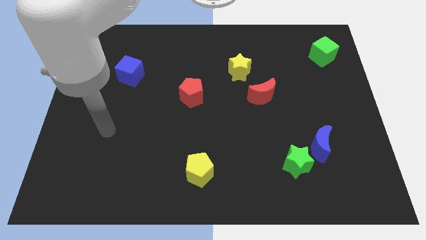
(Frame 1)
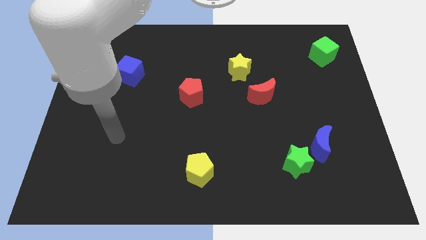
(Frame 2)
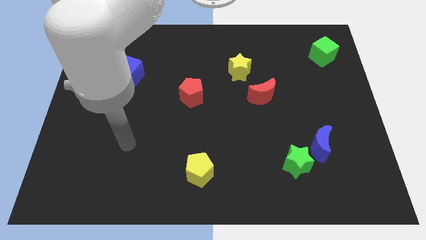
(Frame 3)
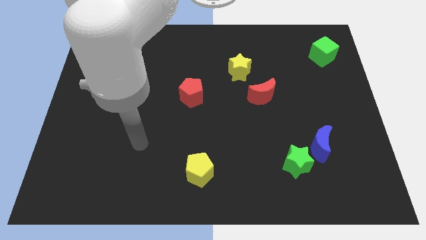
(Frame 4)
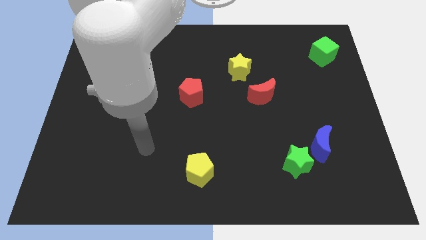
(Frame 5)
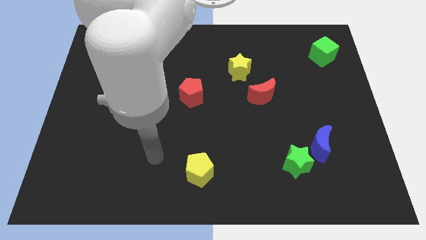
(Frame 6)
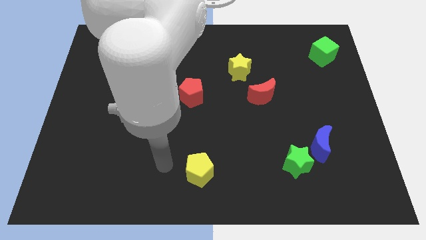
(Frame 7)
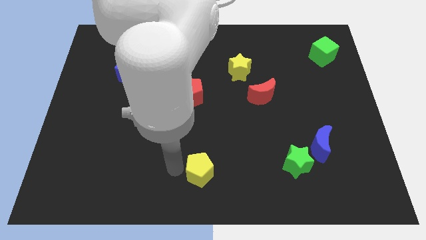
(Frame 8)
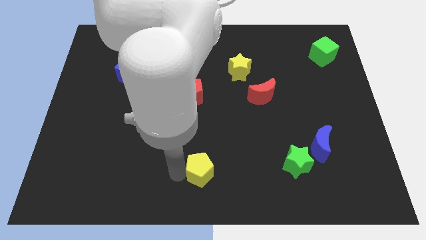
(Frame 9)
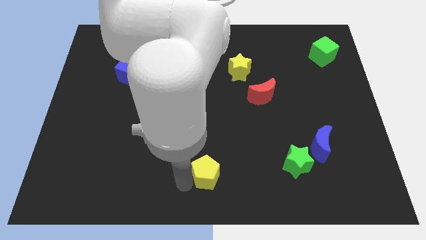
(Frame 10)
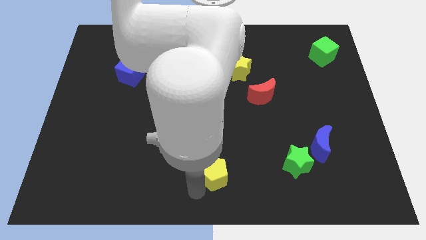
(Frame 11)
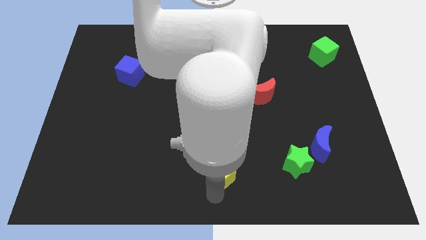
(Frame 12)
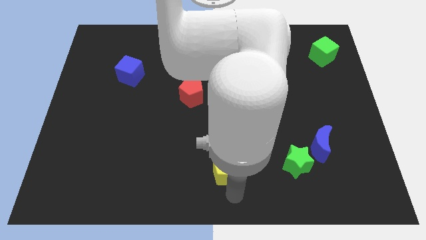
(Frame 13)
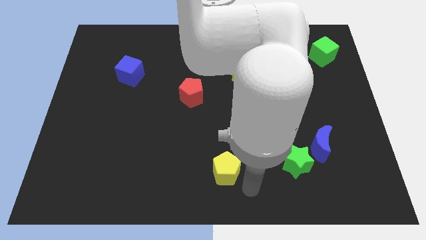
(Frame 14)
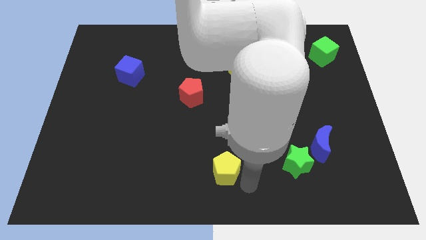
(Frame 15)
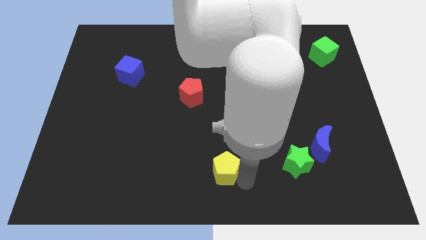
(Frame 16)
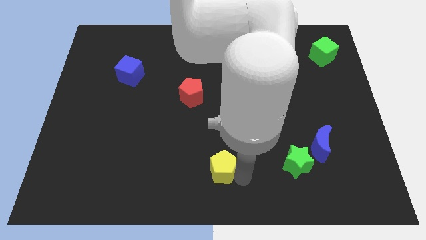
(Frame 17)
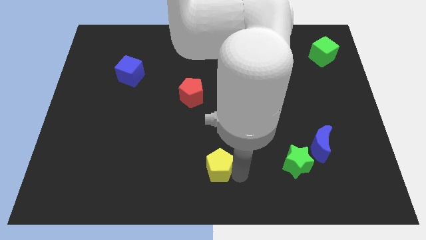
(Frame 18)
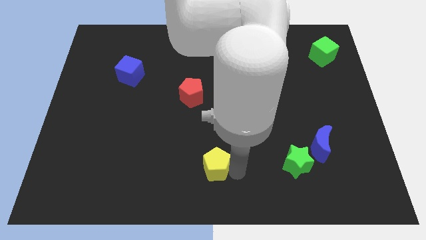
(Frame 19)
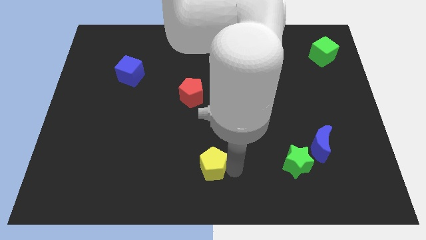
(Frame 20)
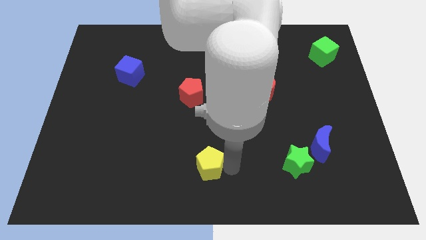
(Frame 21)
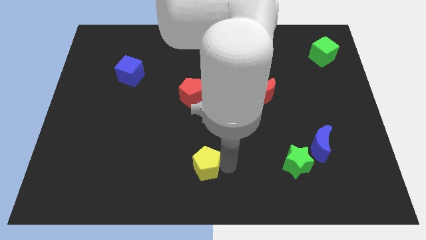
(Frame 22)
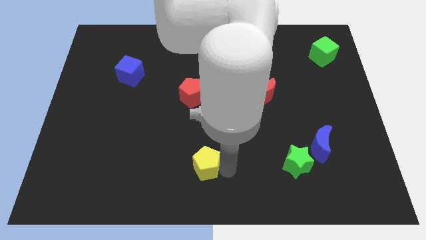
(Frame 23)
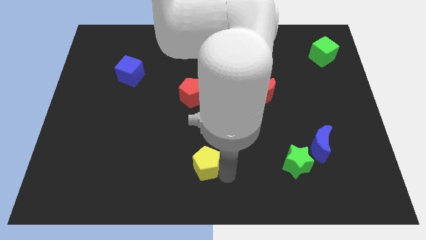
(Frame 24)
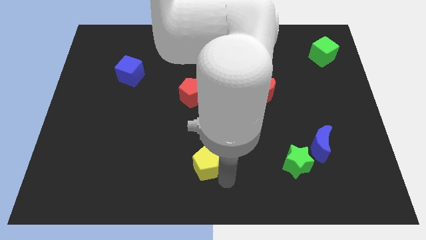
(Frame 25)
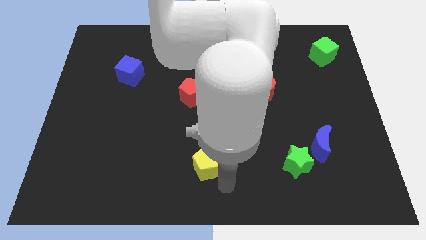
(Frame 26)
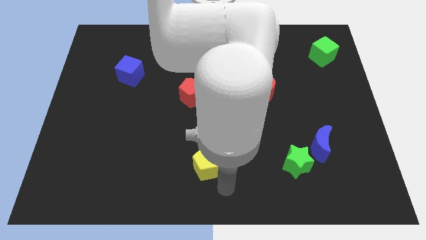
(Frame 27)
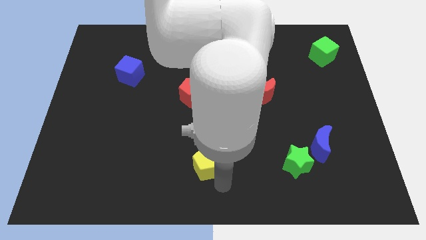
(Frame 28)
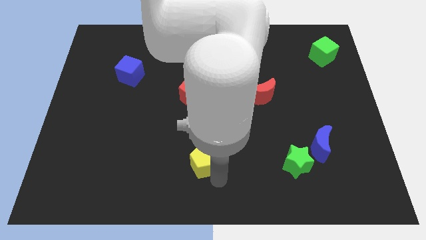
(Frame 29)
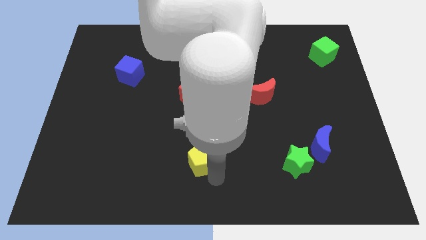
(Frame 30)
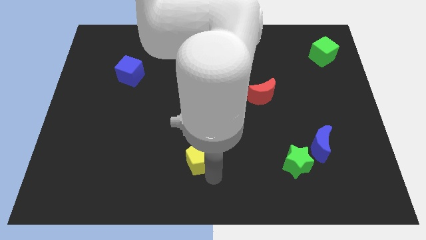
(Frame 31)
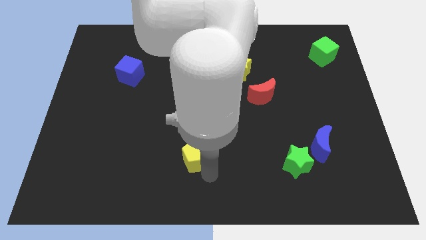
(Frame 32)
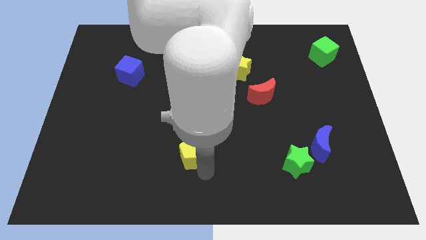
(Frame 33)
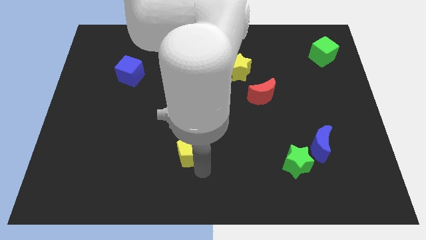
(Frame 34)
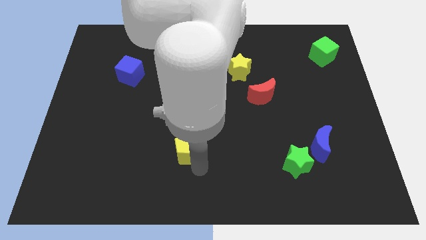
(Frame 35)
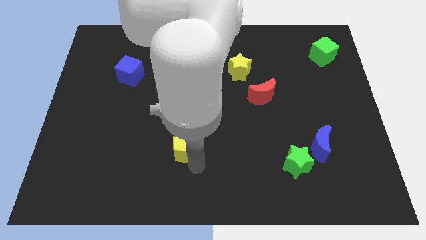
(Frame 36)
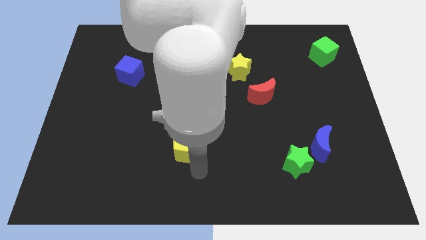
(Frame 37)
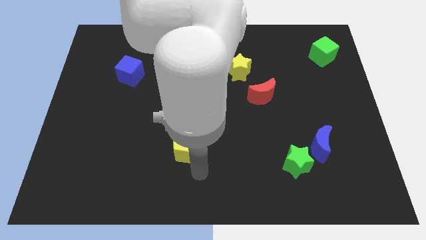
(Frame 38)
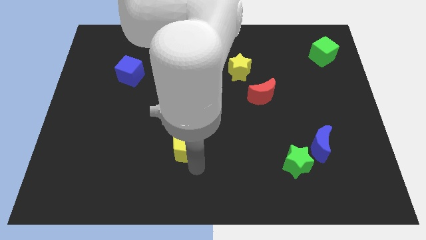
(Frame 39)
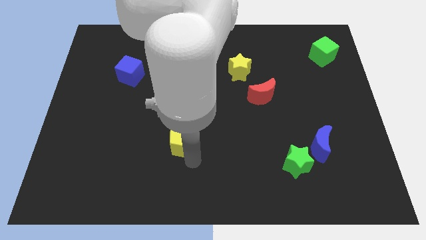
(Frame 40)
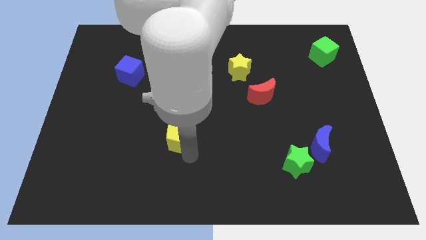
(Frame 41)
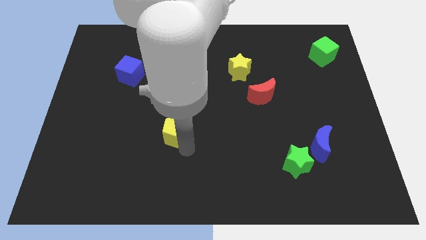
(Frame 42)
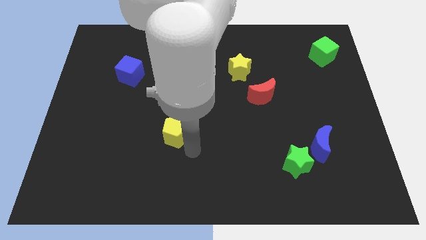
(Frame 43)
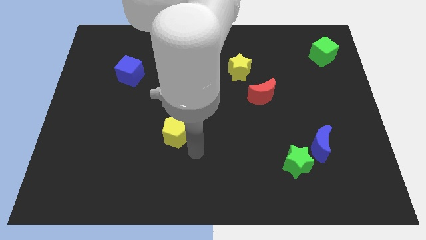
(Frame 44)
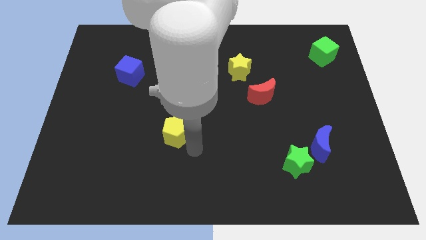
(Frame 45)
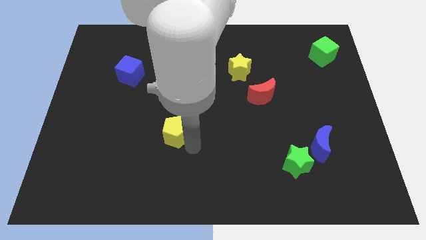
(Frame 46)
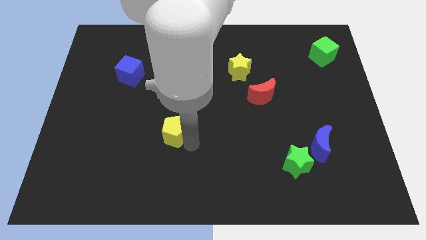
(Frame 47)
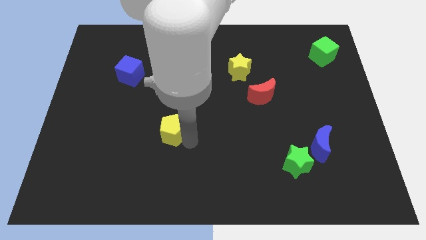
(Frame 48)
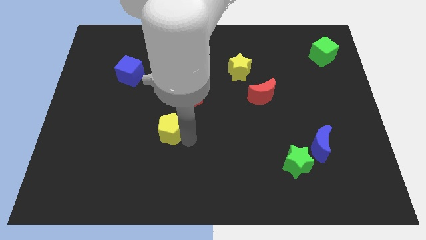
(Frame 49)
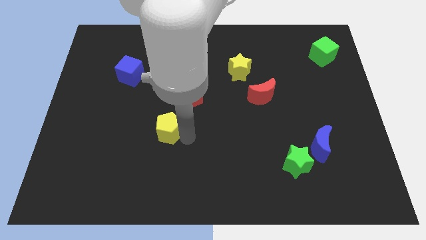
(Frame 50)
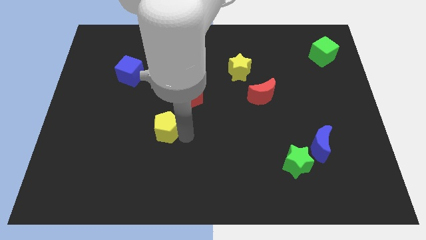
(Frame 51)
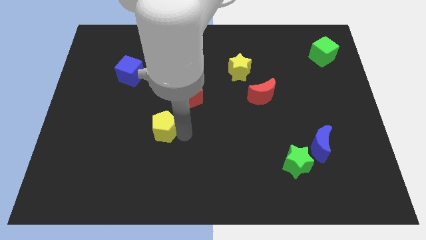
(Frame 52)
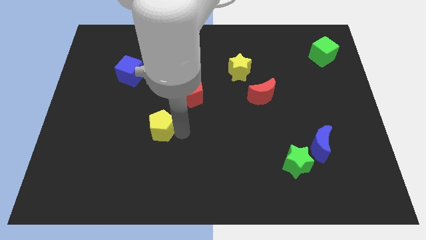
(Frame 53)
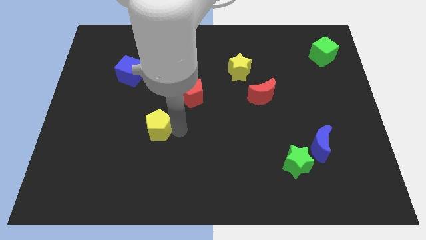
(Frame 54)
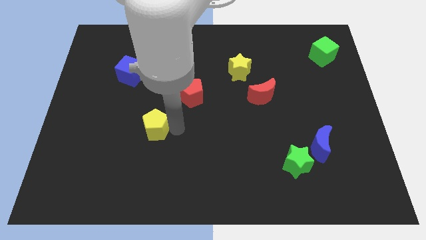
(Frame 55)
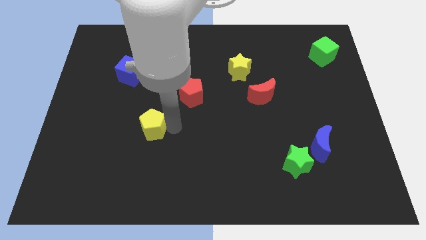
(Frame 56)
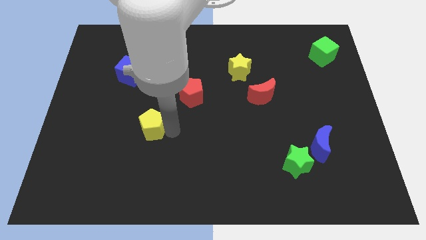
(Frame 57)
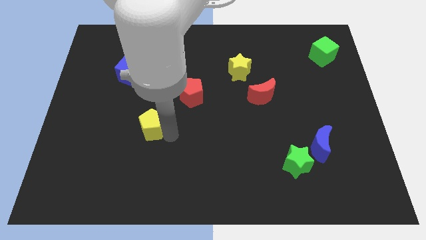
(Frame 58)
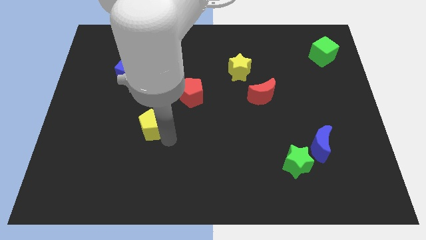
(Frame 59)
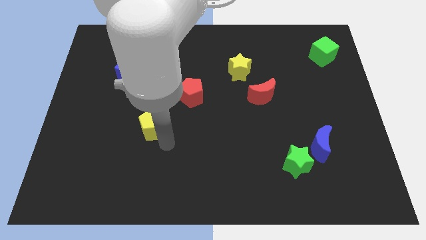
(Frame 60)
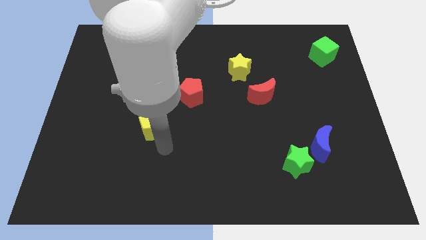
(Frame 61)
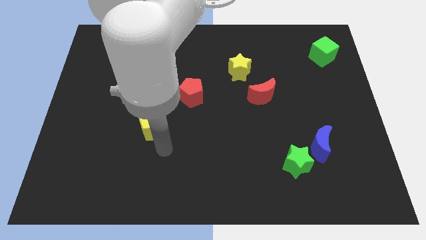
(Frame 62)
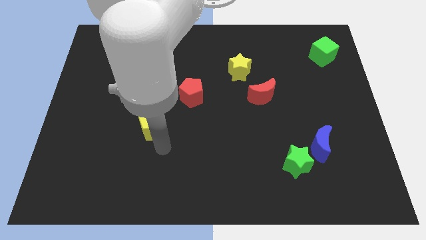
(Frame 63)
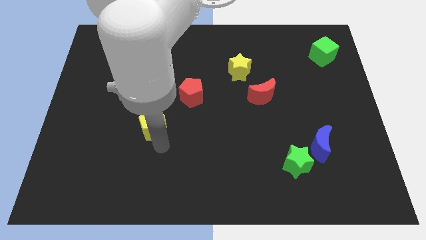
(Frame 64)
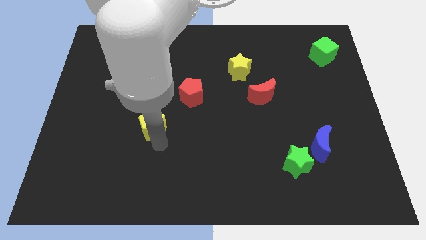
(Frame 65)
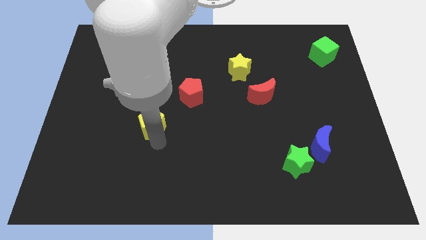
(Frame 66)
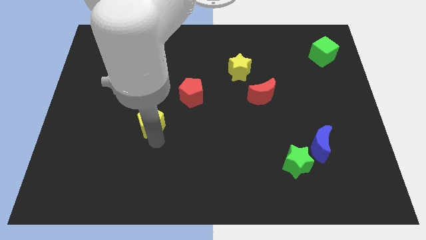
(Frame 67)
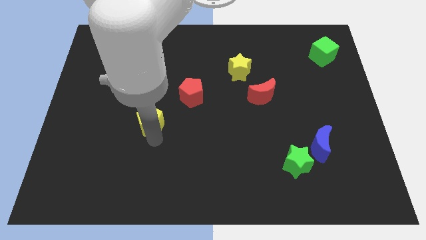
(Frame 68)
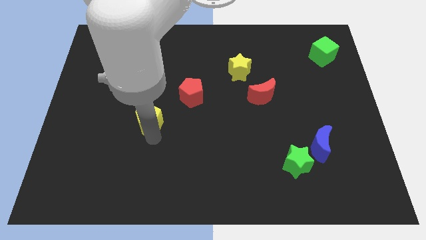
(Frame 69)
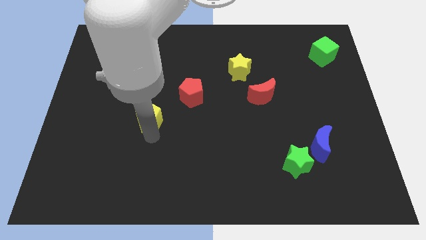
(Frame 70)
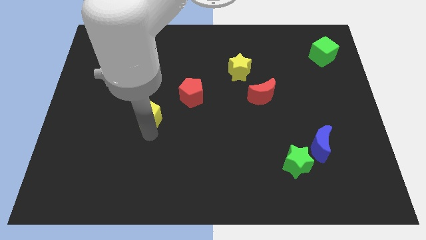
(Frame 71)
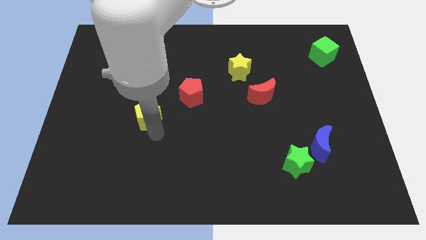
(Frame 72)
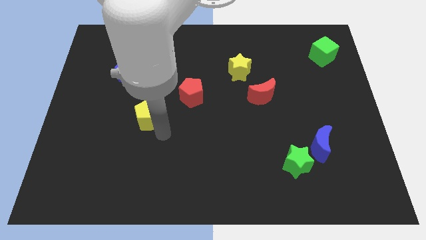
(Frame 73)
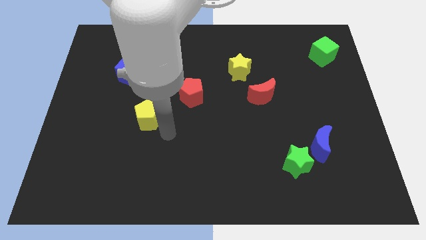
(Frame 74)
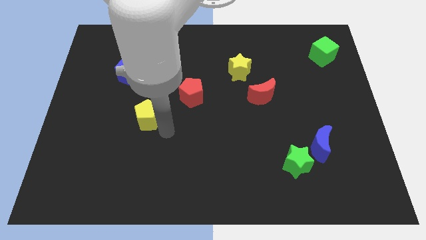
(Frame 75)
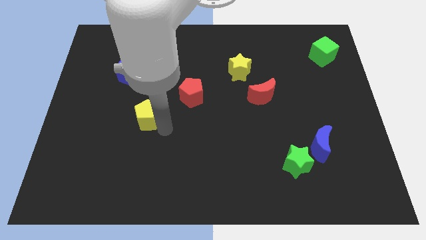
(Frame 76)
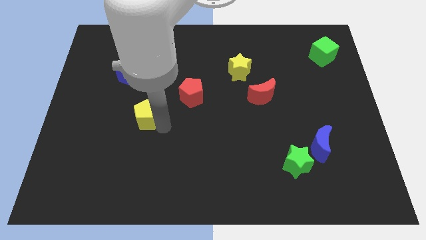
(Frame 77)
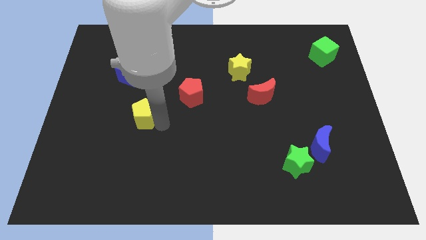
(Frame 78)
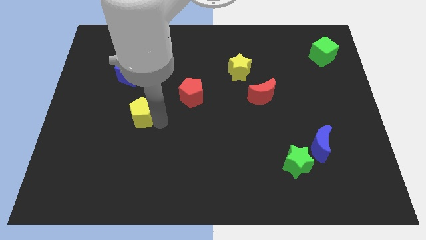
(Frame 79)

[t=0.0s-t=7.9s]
push the yellow pentagon upwards and left

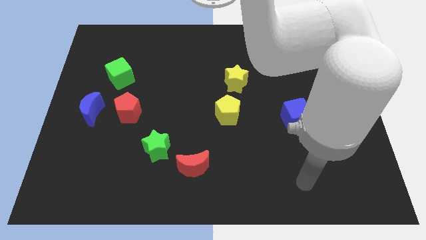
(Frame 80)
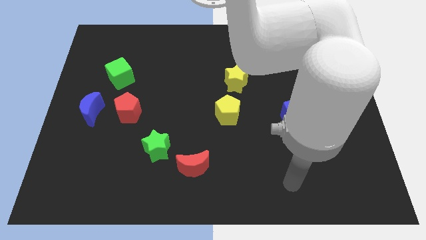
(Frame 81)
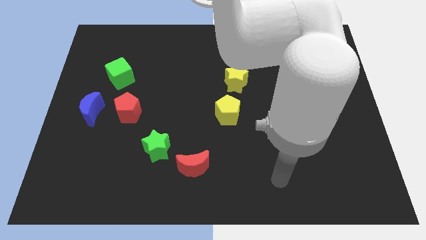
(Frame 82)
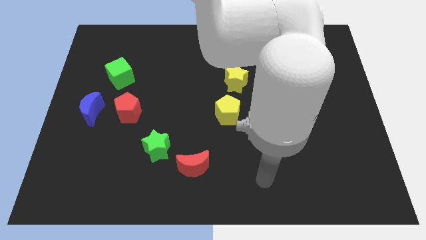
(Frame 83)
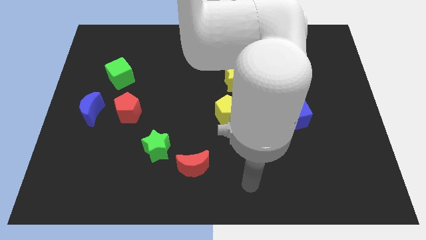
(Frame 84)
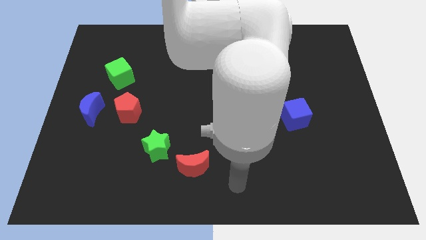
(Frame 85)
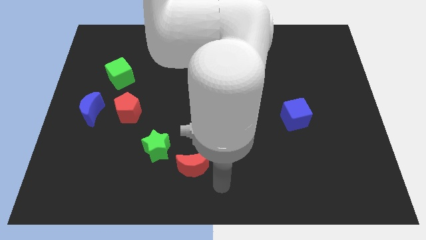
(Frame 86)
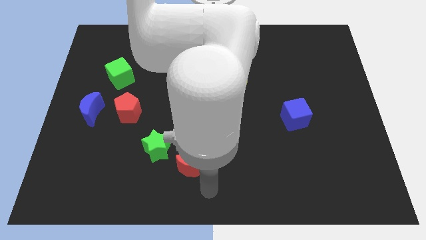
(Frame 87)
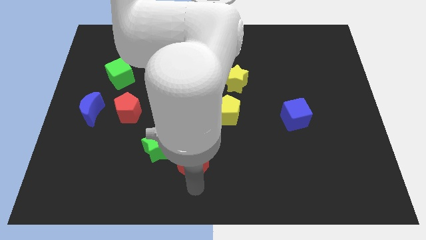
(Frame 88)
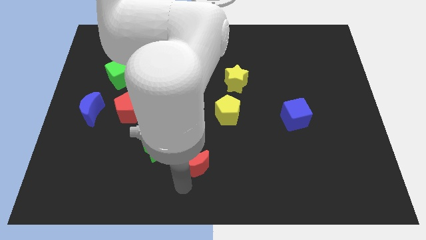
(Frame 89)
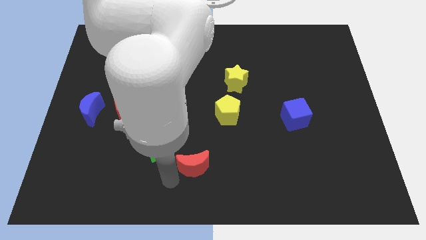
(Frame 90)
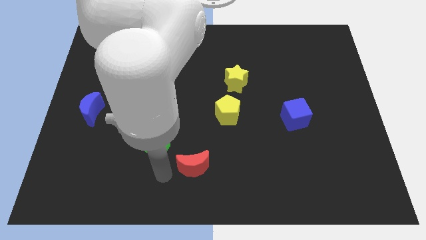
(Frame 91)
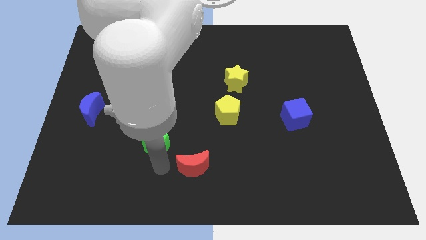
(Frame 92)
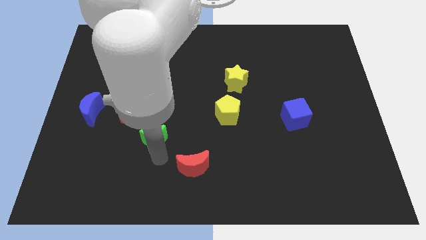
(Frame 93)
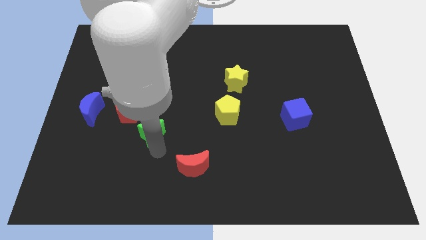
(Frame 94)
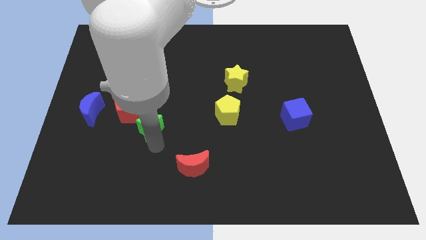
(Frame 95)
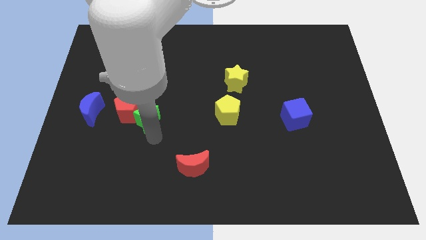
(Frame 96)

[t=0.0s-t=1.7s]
slightly slide the green star up and then to the left
